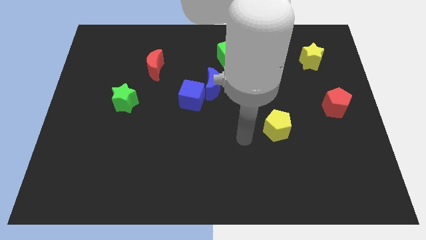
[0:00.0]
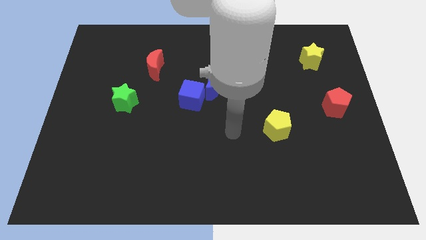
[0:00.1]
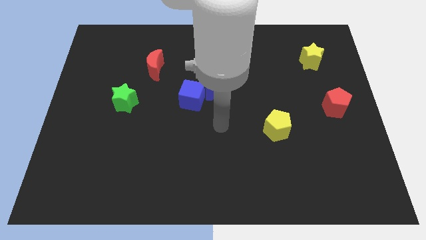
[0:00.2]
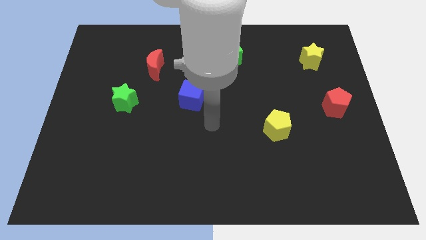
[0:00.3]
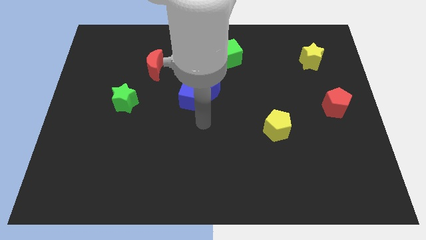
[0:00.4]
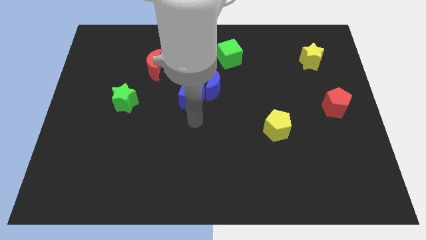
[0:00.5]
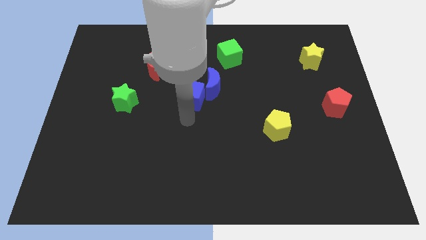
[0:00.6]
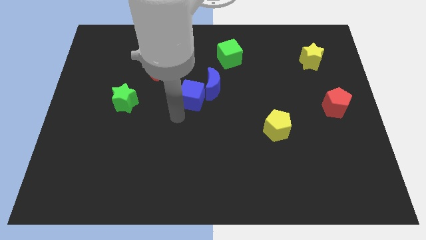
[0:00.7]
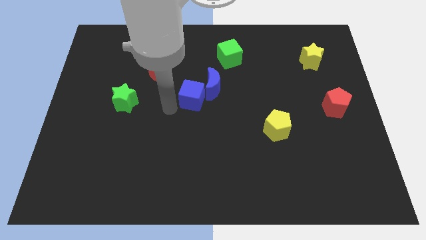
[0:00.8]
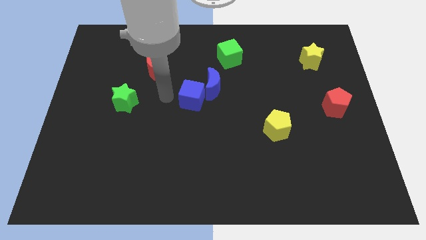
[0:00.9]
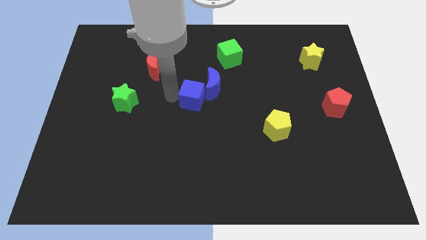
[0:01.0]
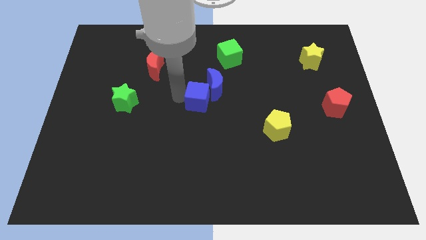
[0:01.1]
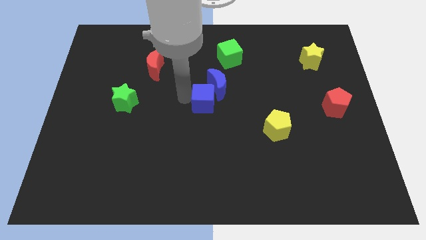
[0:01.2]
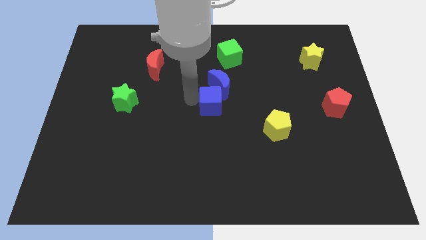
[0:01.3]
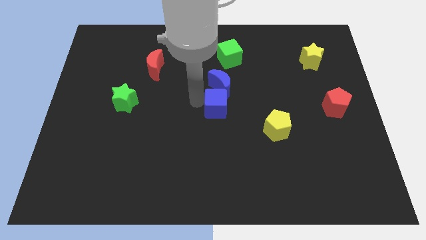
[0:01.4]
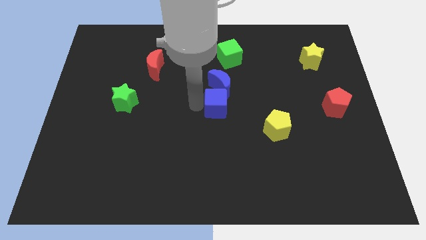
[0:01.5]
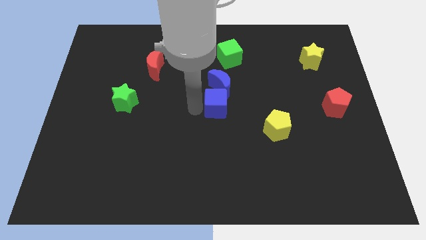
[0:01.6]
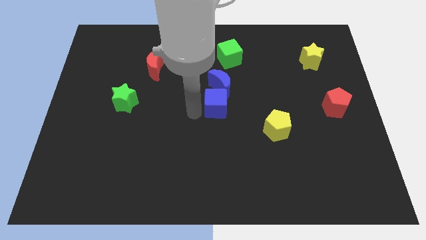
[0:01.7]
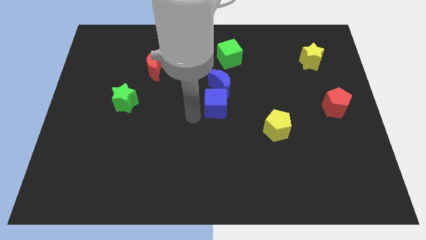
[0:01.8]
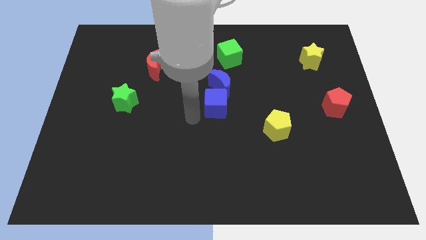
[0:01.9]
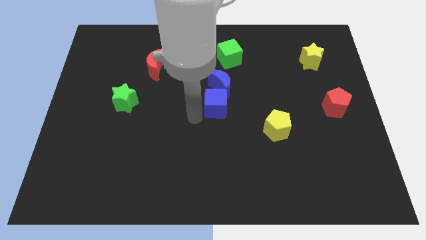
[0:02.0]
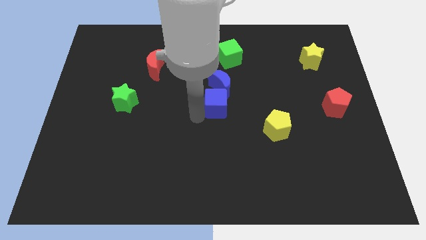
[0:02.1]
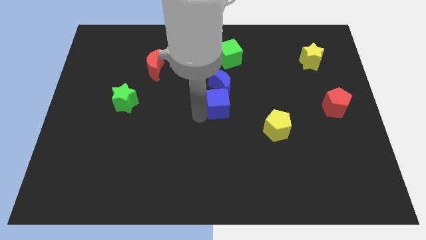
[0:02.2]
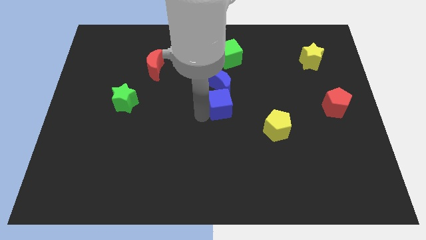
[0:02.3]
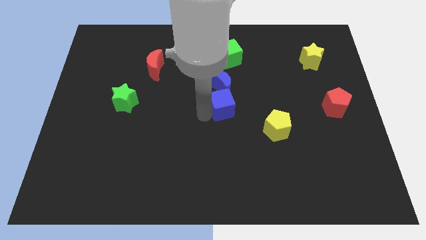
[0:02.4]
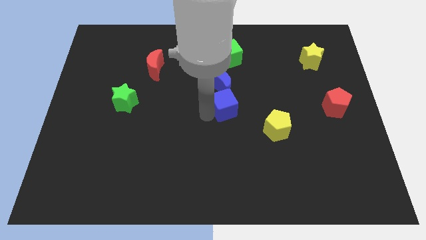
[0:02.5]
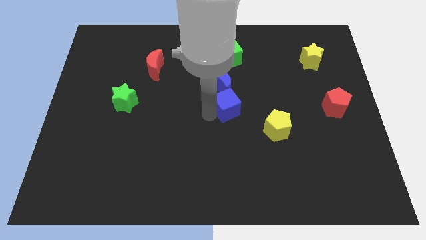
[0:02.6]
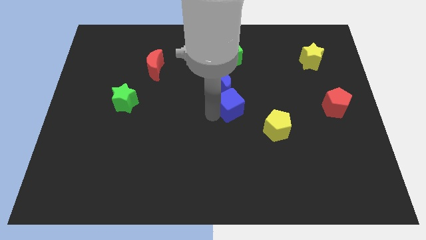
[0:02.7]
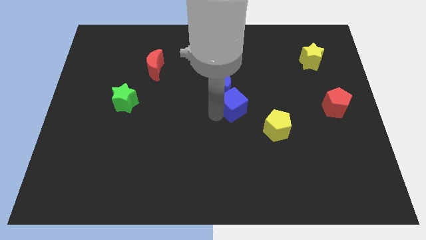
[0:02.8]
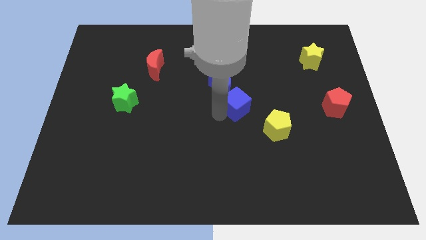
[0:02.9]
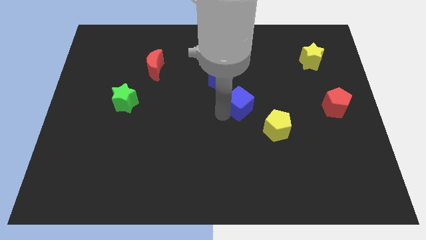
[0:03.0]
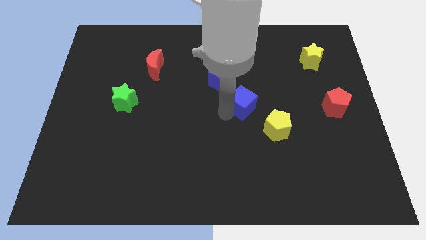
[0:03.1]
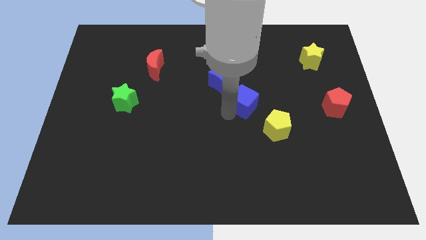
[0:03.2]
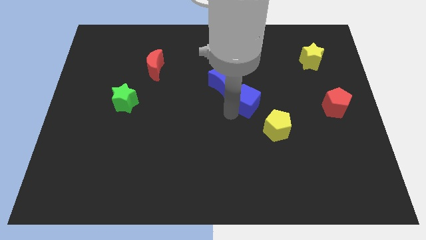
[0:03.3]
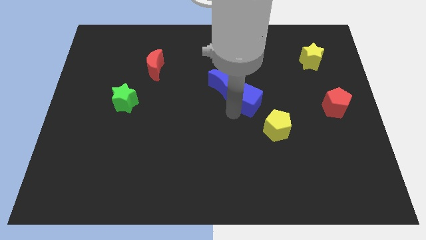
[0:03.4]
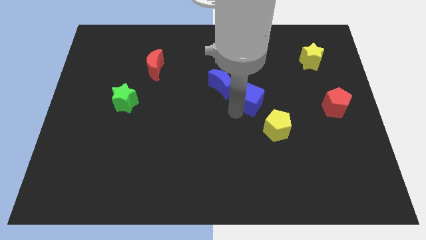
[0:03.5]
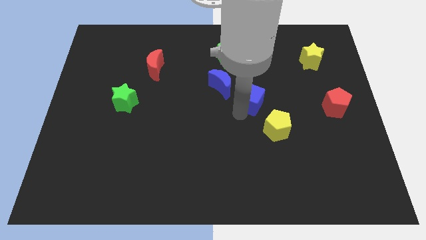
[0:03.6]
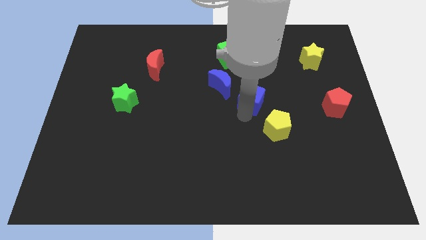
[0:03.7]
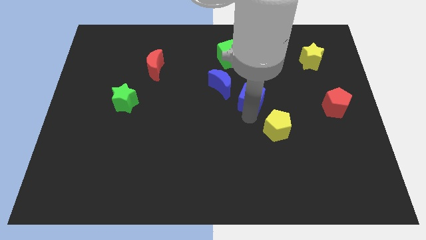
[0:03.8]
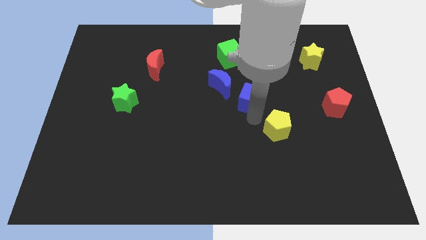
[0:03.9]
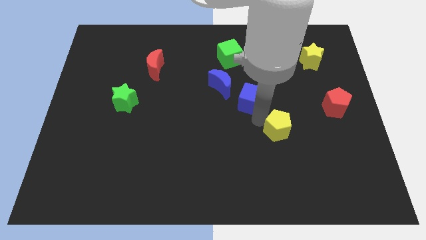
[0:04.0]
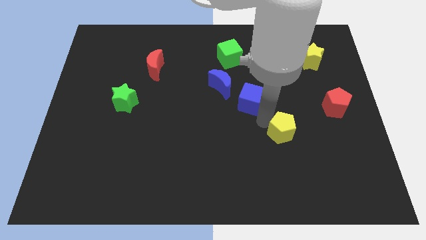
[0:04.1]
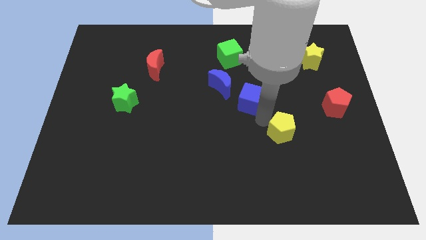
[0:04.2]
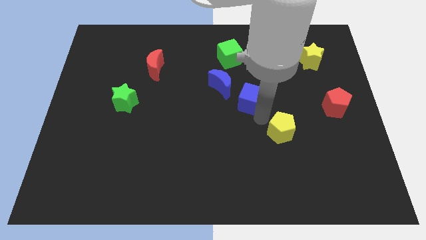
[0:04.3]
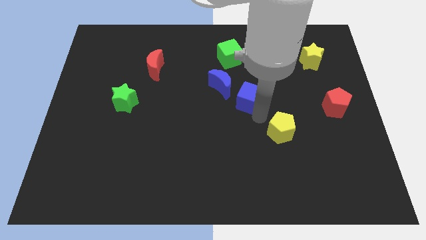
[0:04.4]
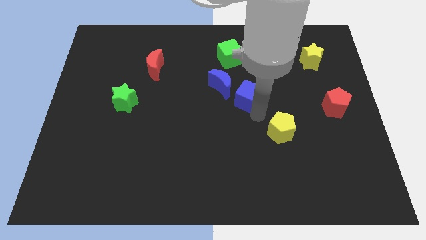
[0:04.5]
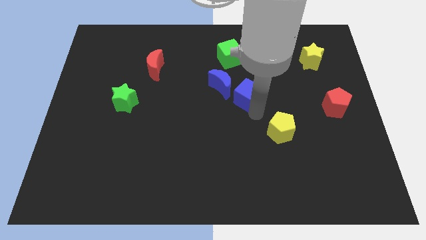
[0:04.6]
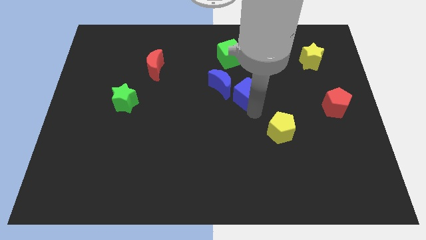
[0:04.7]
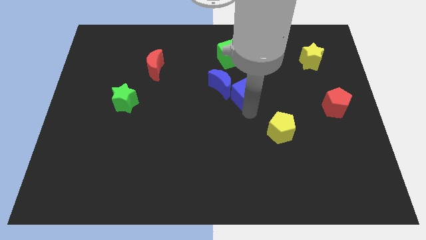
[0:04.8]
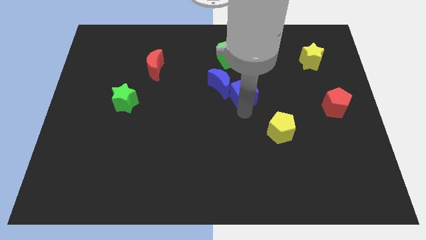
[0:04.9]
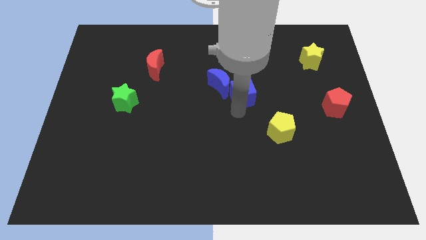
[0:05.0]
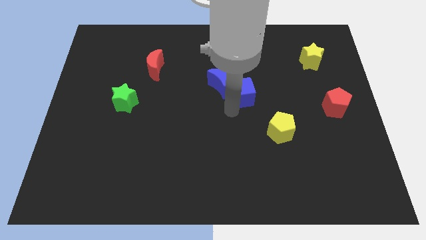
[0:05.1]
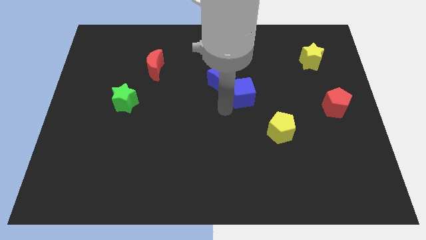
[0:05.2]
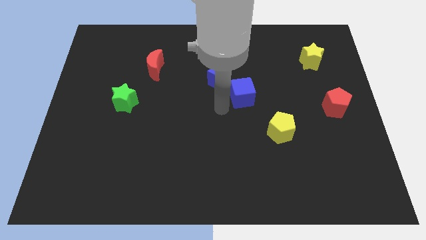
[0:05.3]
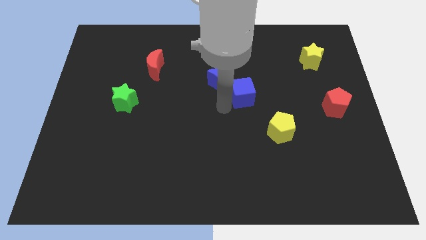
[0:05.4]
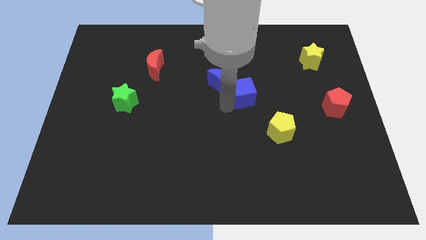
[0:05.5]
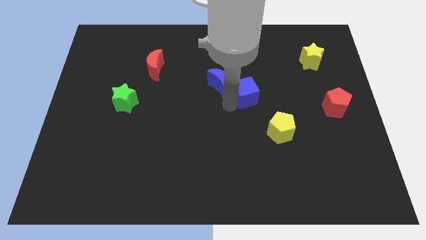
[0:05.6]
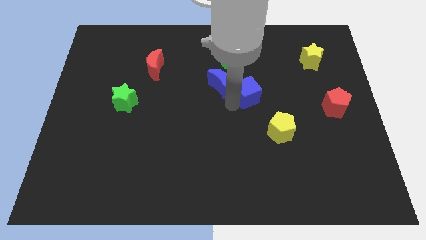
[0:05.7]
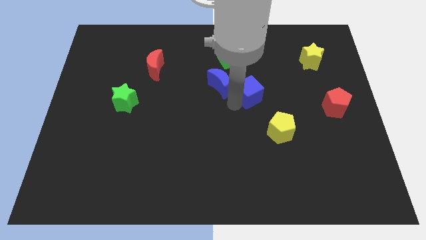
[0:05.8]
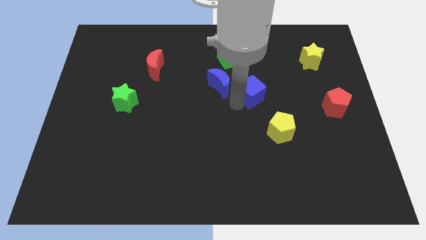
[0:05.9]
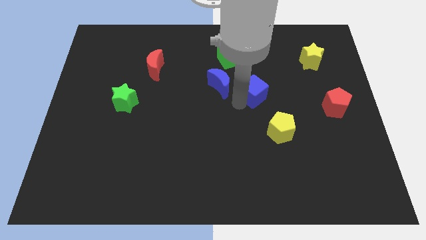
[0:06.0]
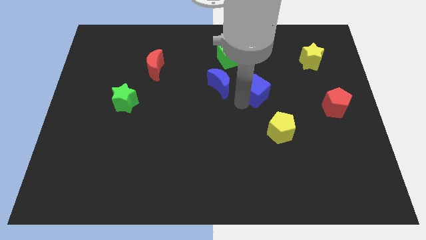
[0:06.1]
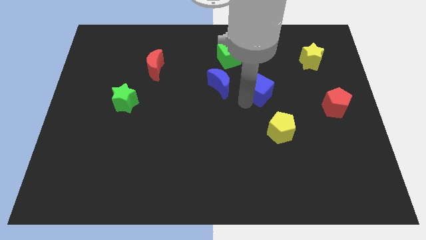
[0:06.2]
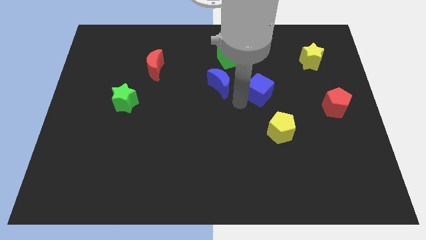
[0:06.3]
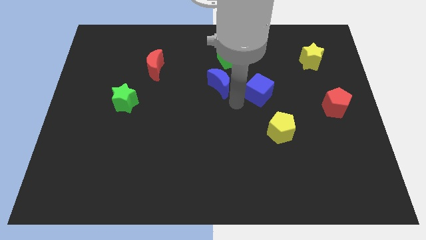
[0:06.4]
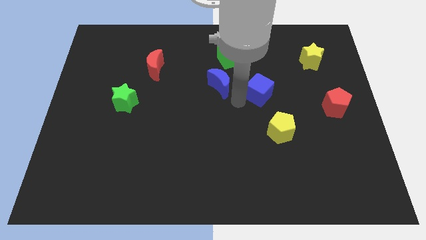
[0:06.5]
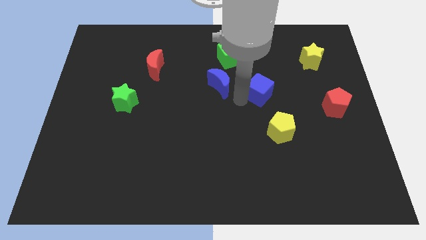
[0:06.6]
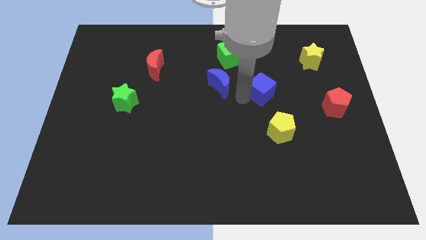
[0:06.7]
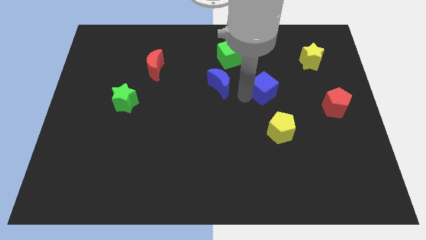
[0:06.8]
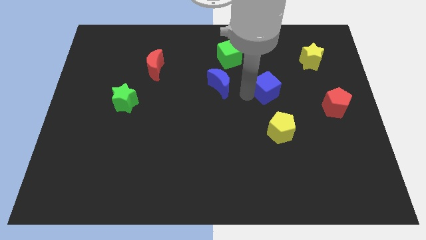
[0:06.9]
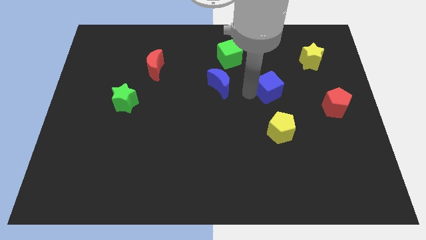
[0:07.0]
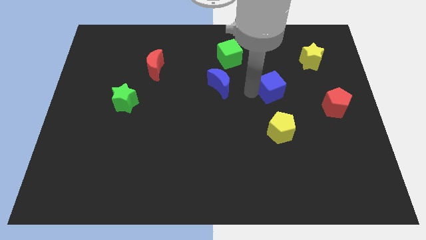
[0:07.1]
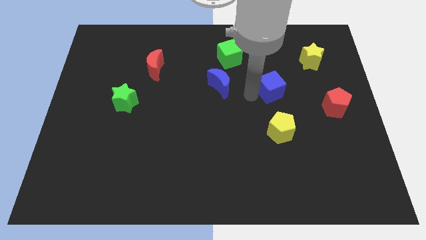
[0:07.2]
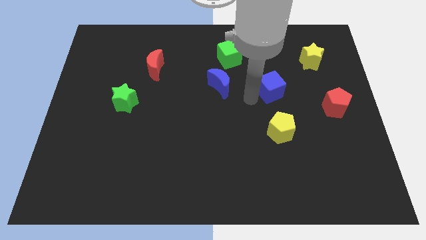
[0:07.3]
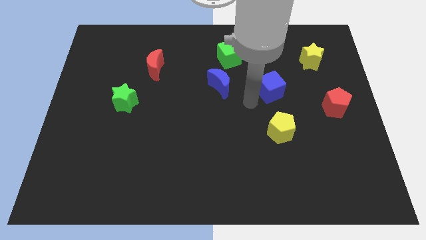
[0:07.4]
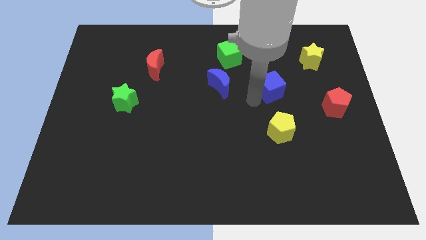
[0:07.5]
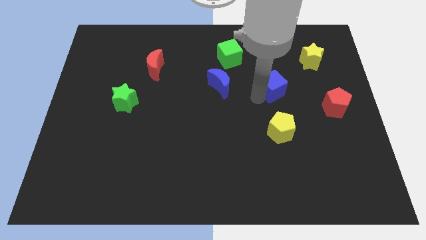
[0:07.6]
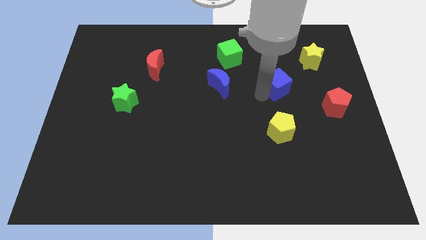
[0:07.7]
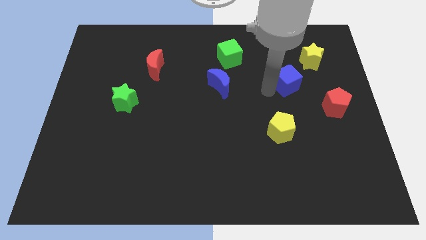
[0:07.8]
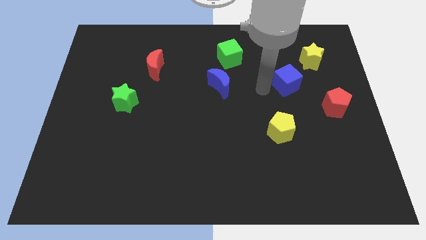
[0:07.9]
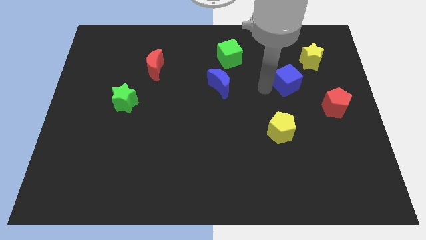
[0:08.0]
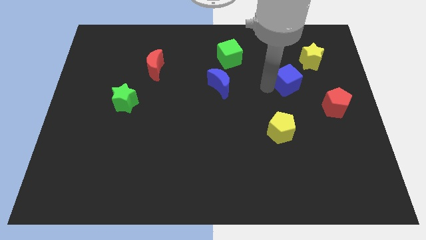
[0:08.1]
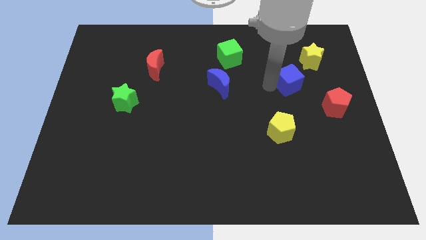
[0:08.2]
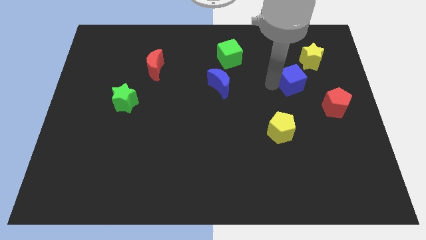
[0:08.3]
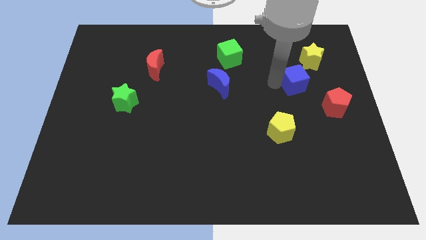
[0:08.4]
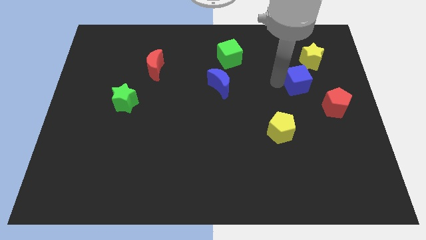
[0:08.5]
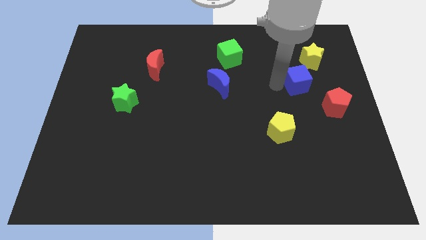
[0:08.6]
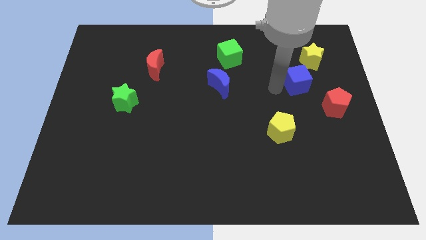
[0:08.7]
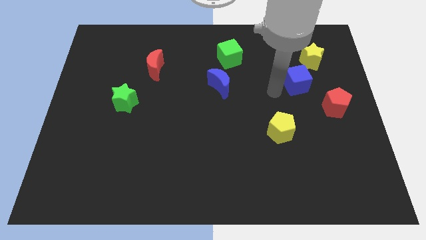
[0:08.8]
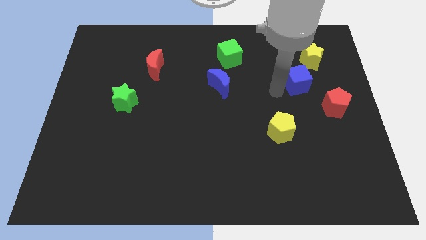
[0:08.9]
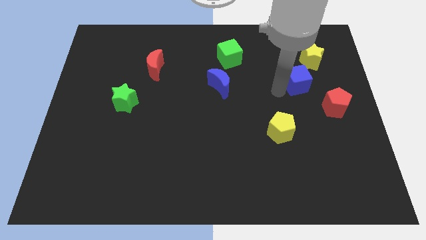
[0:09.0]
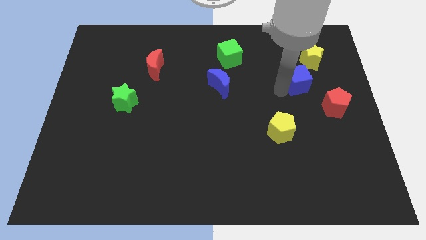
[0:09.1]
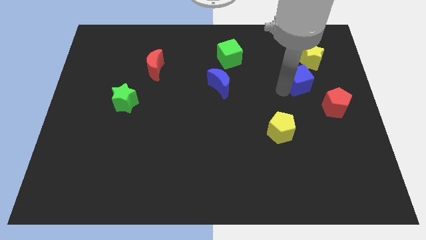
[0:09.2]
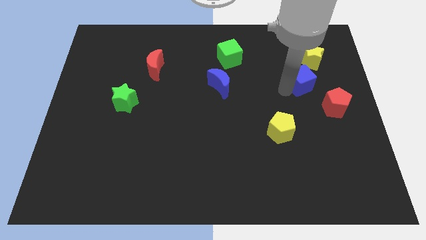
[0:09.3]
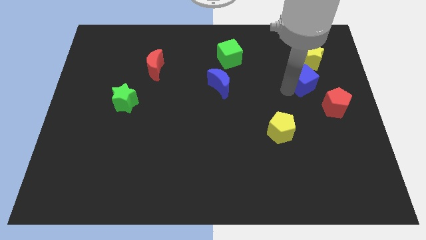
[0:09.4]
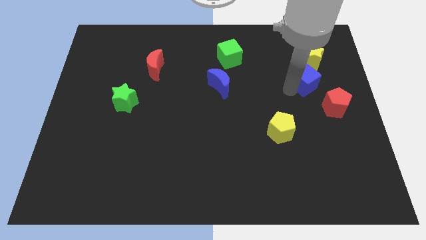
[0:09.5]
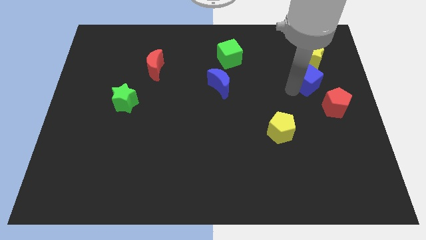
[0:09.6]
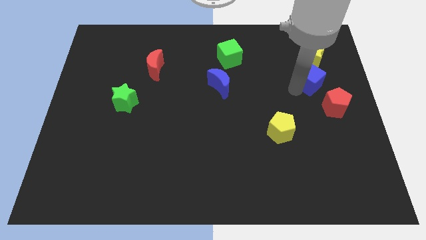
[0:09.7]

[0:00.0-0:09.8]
push the blue cube to the top of the red pentagon
